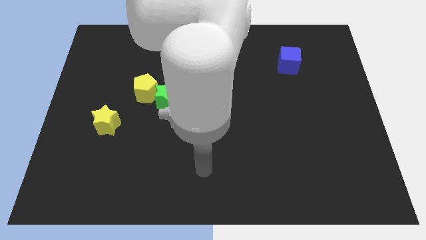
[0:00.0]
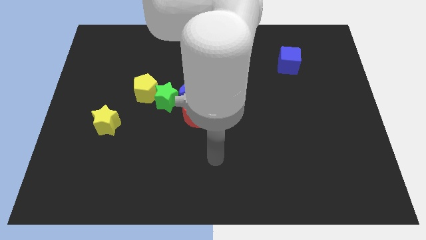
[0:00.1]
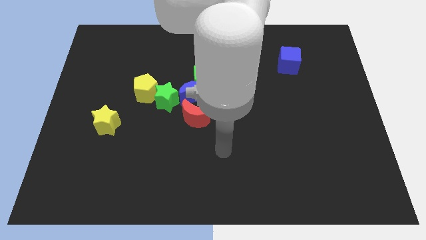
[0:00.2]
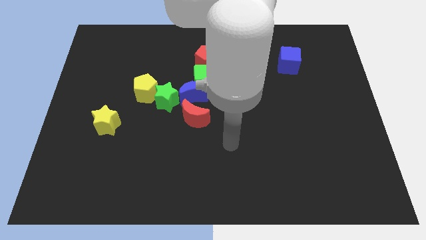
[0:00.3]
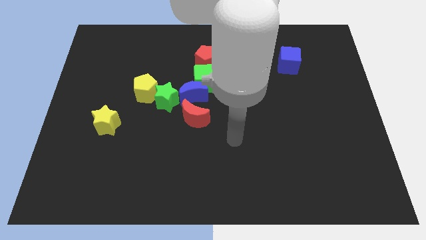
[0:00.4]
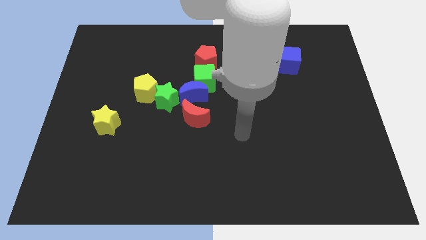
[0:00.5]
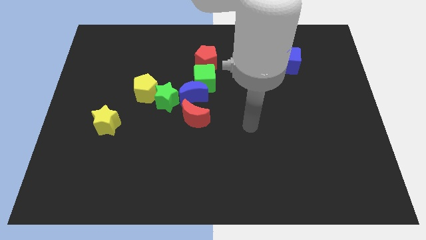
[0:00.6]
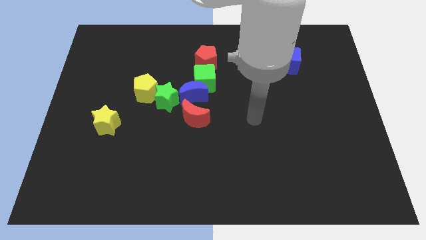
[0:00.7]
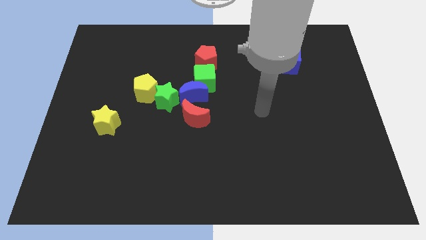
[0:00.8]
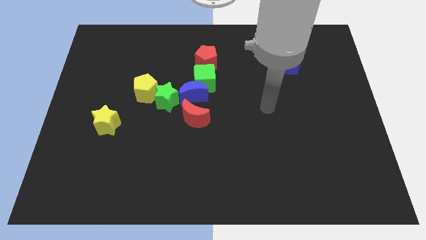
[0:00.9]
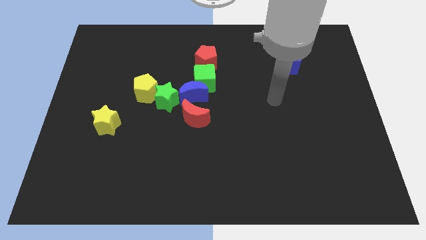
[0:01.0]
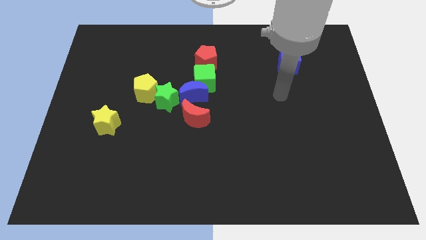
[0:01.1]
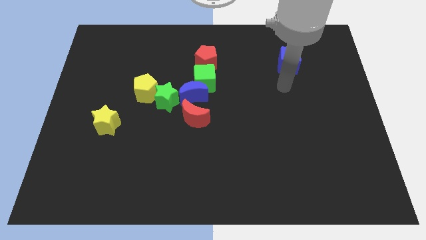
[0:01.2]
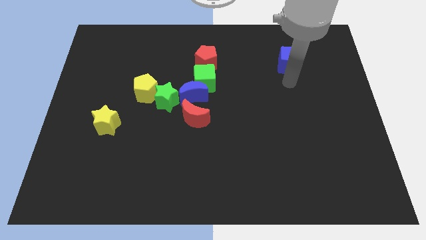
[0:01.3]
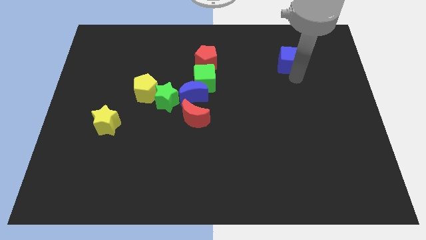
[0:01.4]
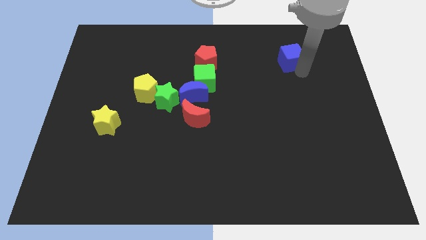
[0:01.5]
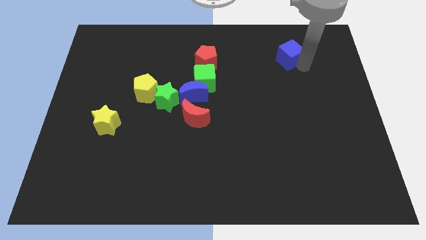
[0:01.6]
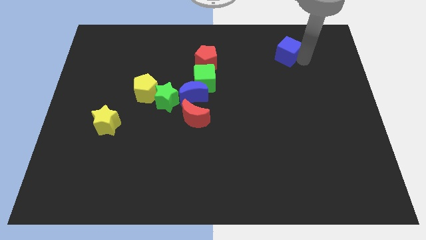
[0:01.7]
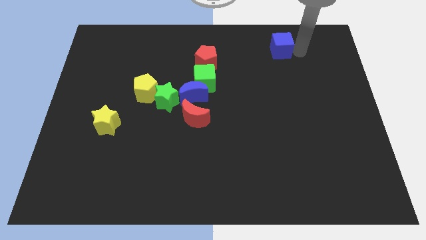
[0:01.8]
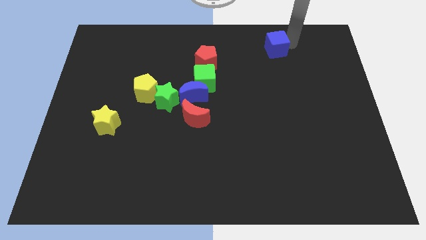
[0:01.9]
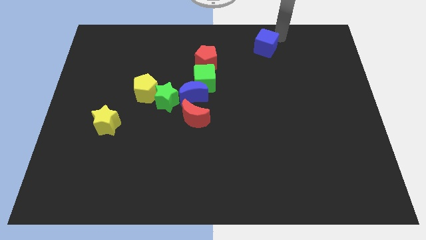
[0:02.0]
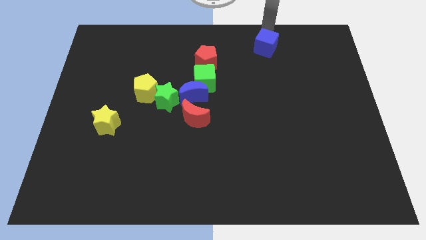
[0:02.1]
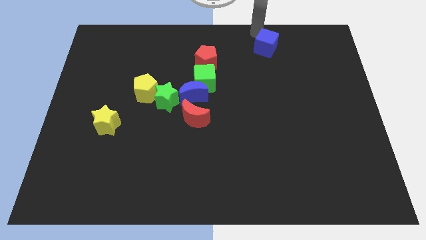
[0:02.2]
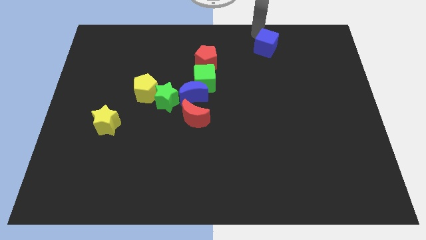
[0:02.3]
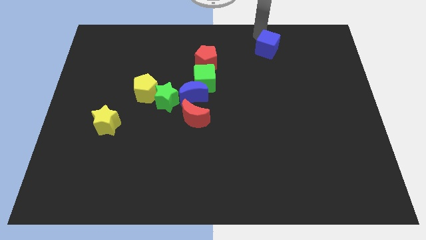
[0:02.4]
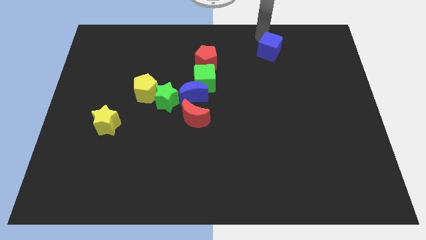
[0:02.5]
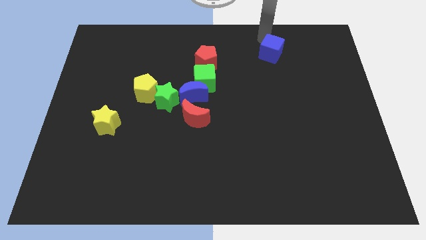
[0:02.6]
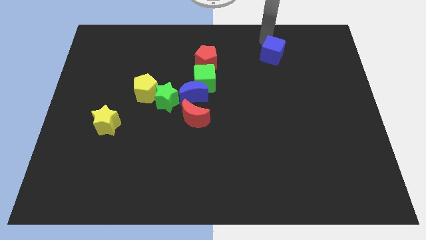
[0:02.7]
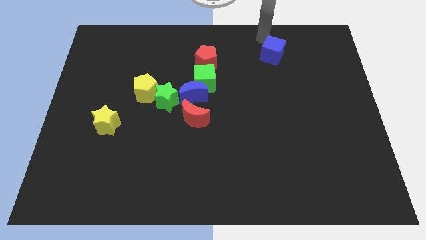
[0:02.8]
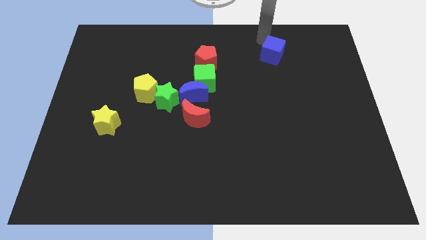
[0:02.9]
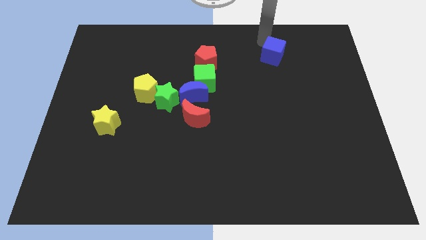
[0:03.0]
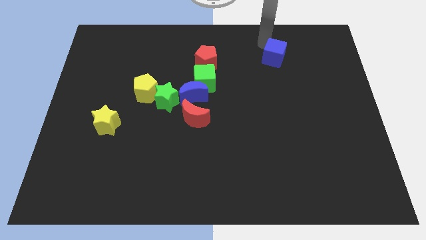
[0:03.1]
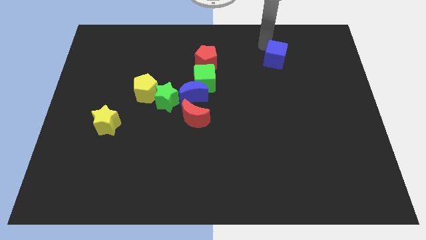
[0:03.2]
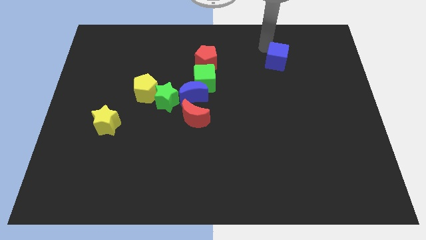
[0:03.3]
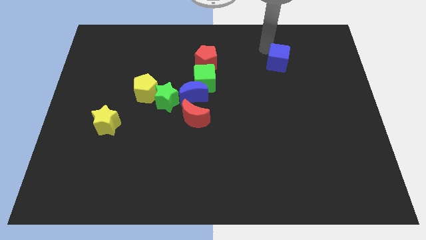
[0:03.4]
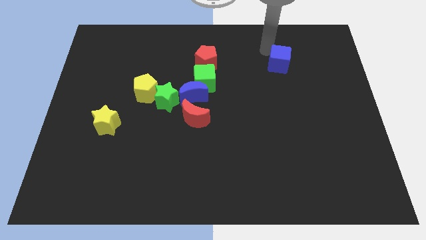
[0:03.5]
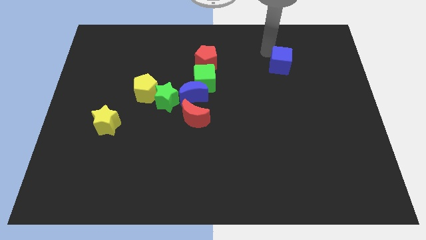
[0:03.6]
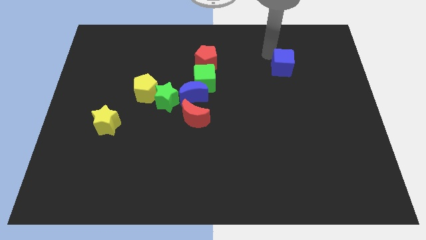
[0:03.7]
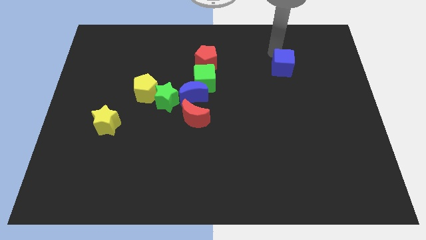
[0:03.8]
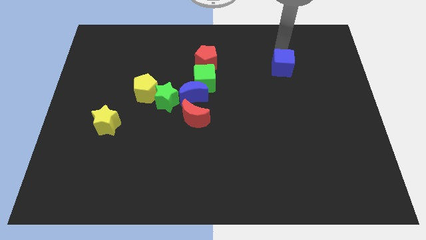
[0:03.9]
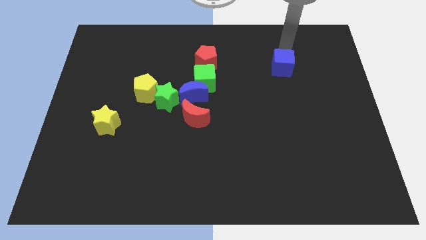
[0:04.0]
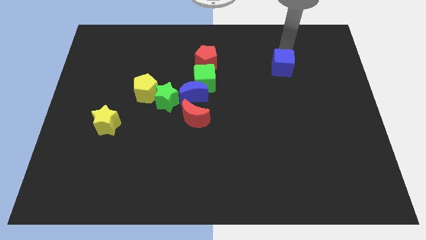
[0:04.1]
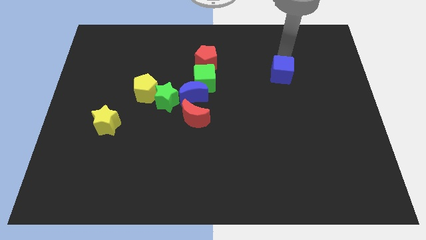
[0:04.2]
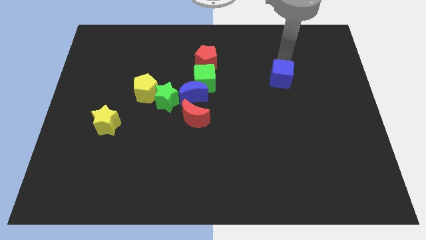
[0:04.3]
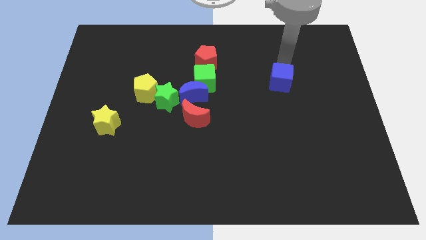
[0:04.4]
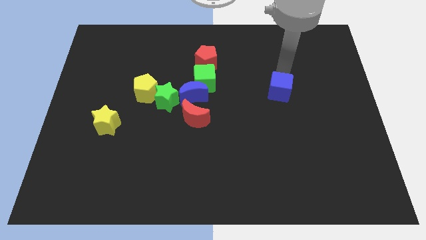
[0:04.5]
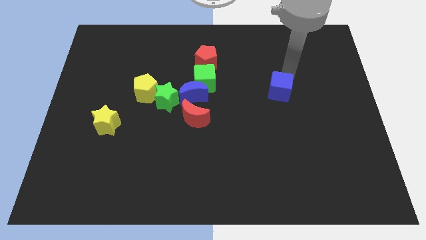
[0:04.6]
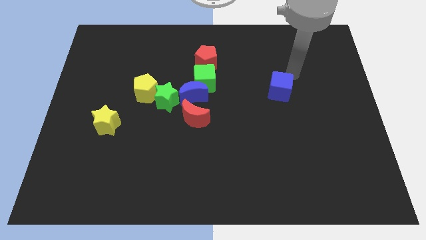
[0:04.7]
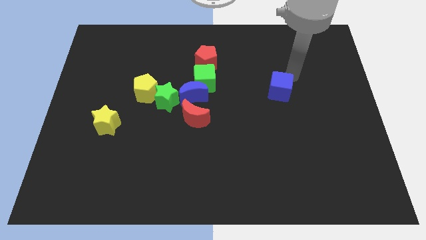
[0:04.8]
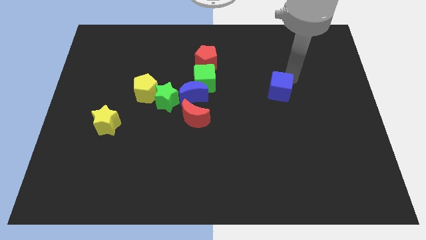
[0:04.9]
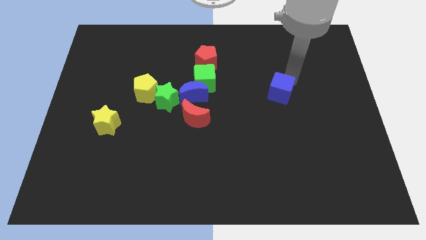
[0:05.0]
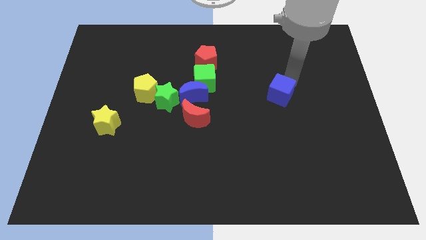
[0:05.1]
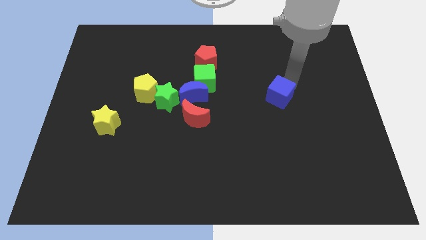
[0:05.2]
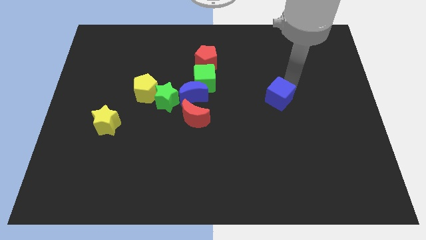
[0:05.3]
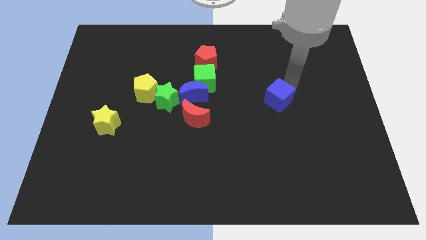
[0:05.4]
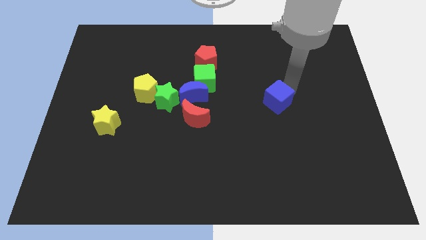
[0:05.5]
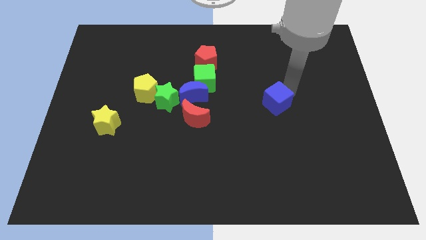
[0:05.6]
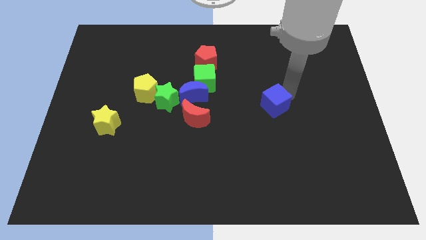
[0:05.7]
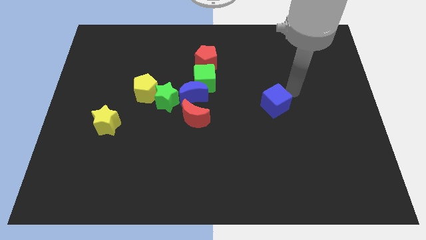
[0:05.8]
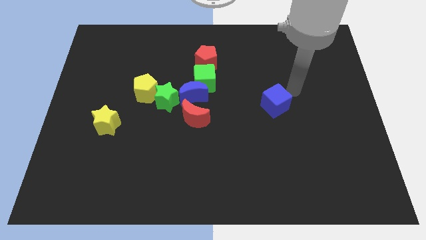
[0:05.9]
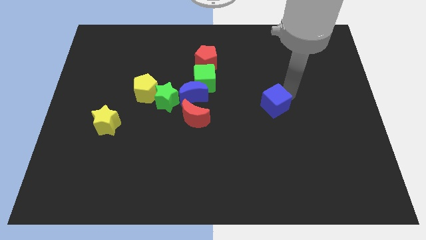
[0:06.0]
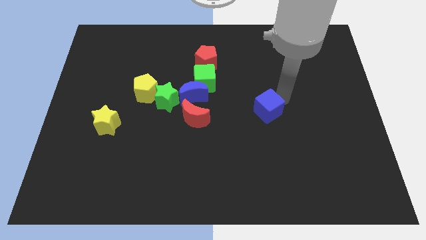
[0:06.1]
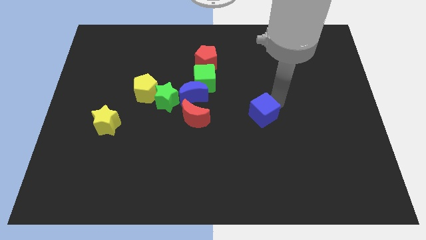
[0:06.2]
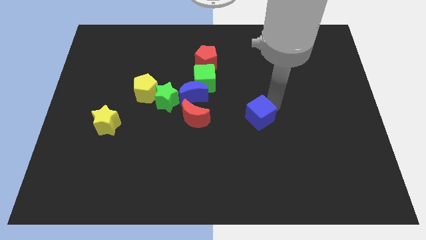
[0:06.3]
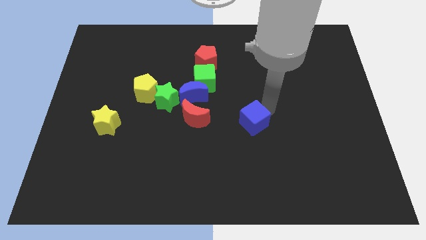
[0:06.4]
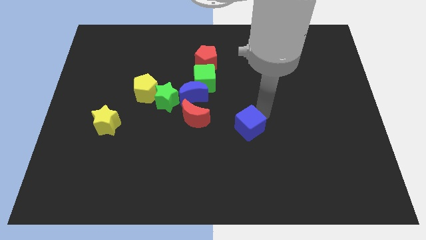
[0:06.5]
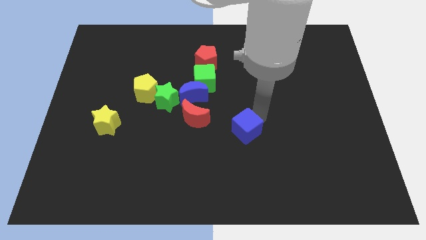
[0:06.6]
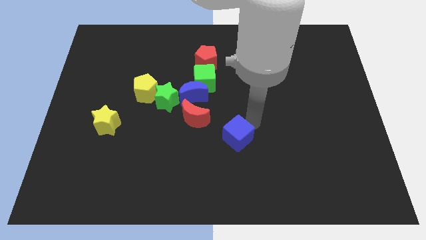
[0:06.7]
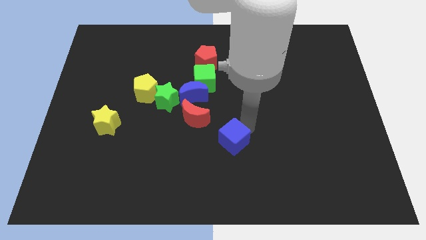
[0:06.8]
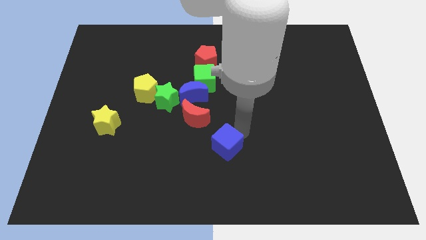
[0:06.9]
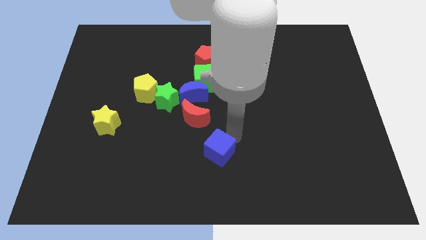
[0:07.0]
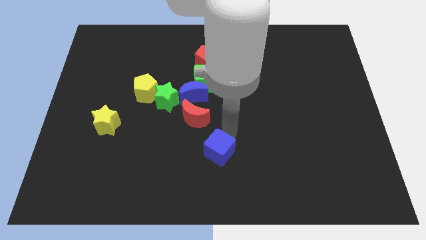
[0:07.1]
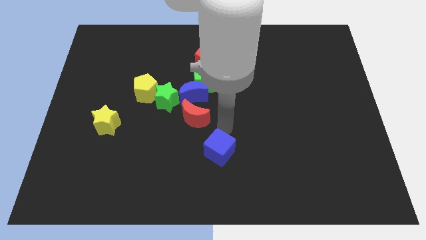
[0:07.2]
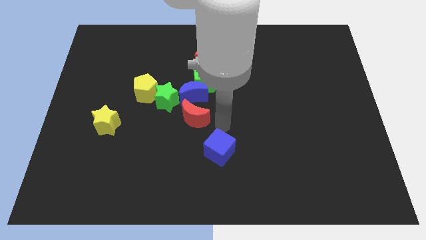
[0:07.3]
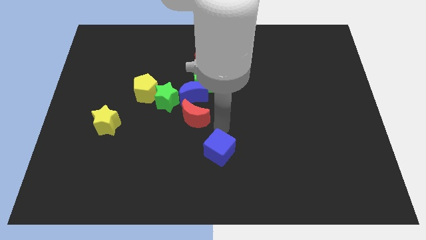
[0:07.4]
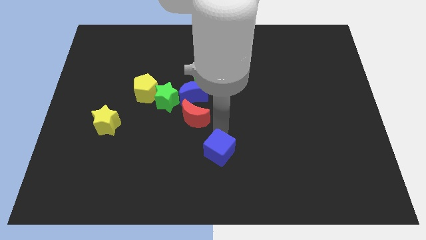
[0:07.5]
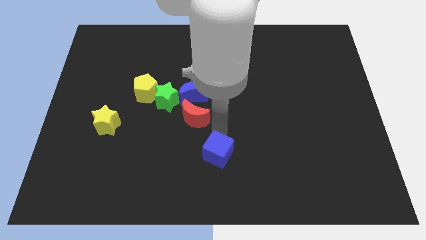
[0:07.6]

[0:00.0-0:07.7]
move the blue cube to the bottom side
